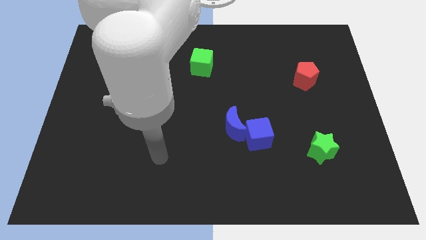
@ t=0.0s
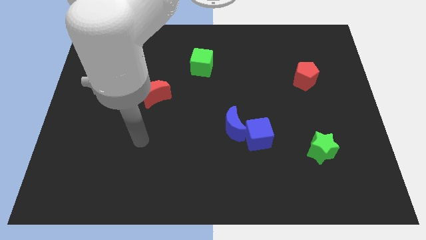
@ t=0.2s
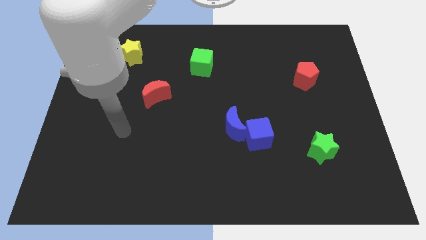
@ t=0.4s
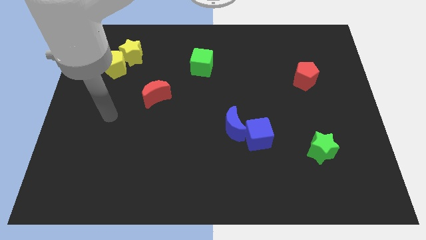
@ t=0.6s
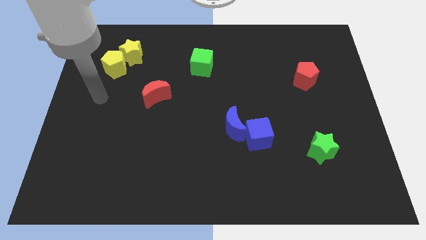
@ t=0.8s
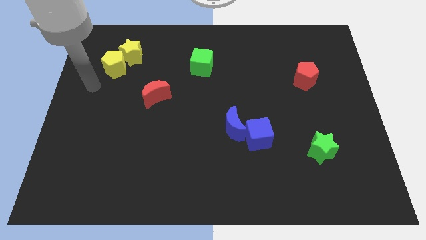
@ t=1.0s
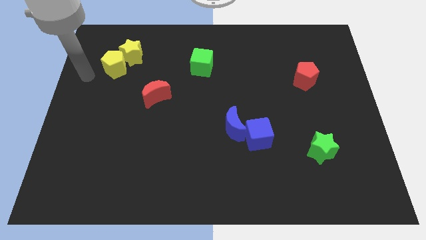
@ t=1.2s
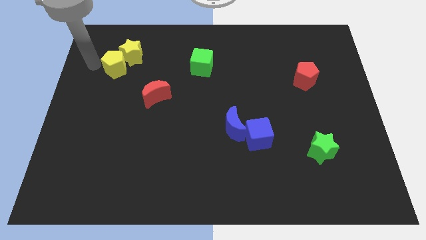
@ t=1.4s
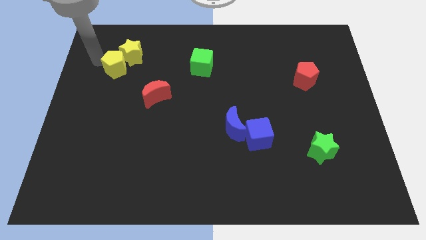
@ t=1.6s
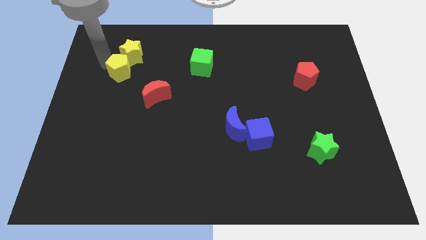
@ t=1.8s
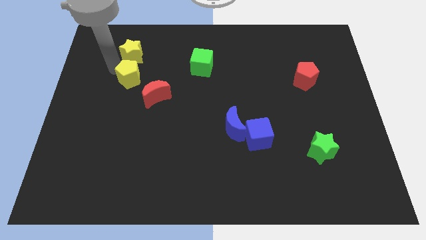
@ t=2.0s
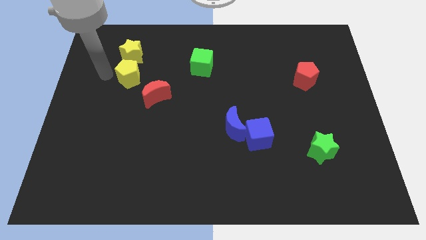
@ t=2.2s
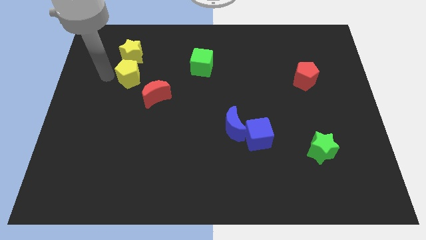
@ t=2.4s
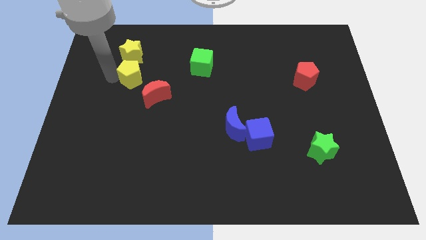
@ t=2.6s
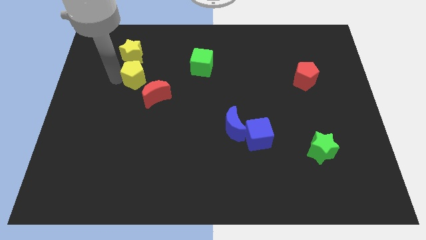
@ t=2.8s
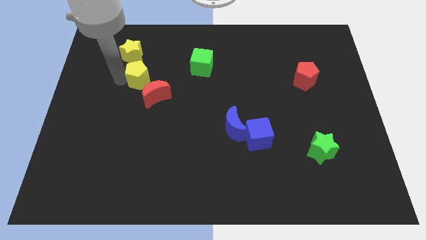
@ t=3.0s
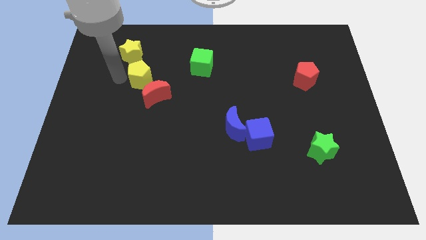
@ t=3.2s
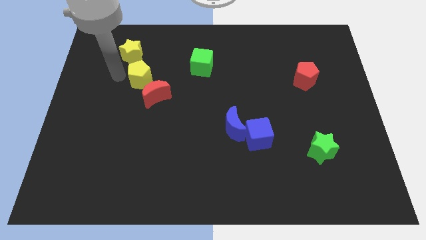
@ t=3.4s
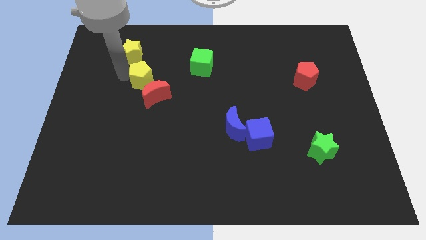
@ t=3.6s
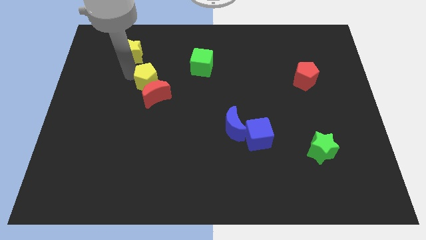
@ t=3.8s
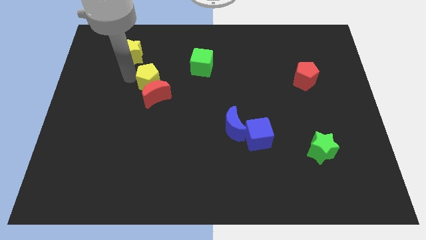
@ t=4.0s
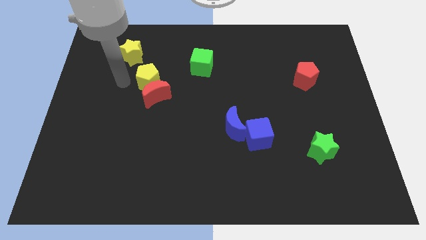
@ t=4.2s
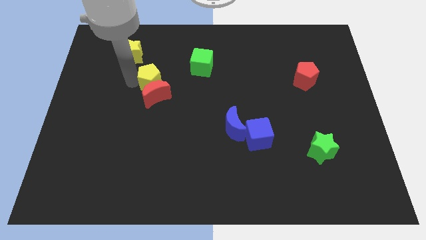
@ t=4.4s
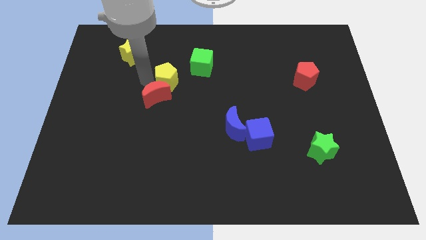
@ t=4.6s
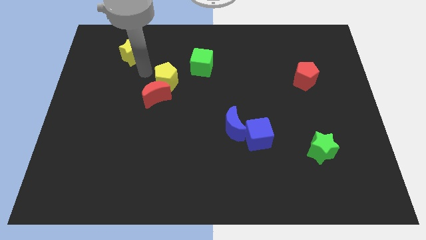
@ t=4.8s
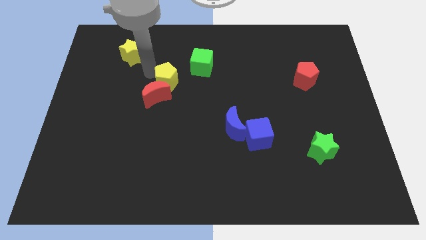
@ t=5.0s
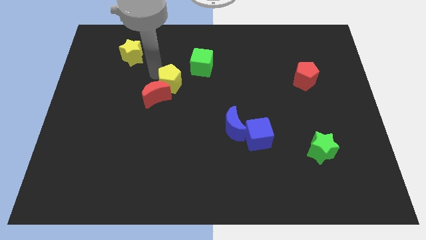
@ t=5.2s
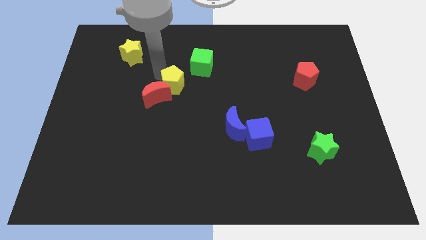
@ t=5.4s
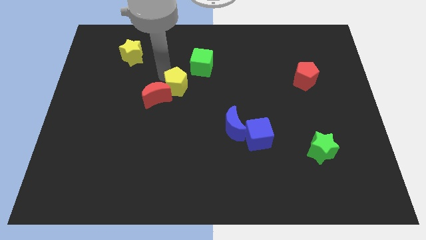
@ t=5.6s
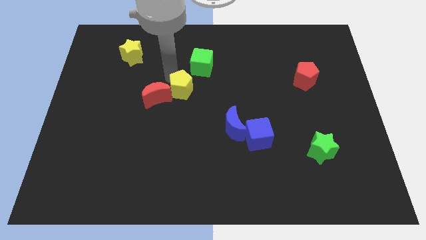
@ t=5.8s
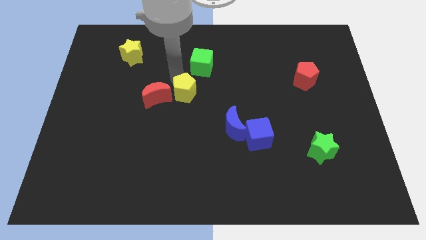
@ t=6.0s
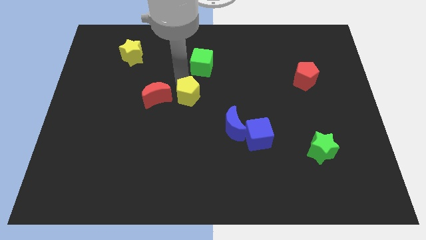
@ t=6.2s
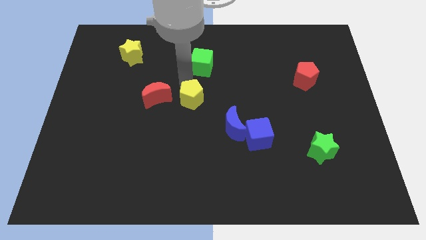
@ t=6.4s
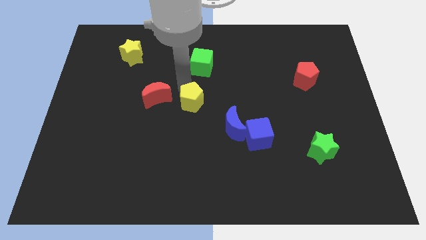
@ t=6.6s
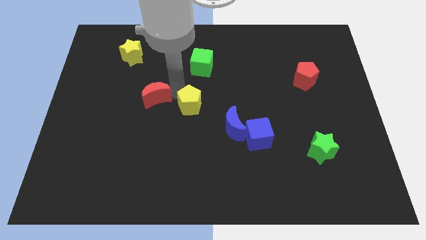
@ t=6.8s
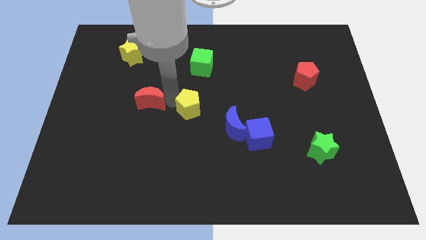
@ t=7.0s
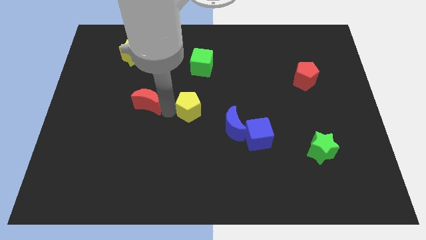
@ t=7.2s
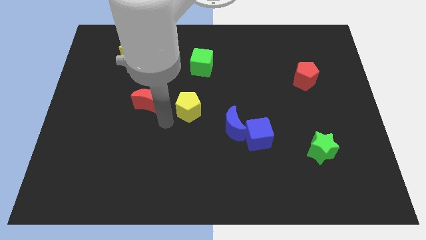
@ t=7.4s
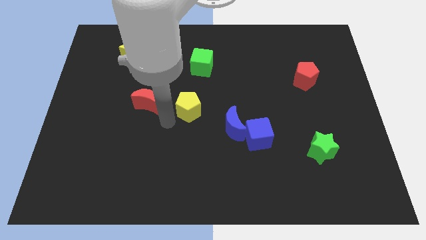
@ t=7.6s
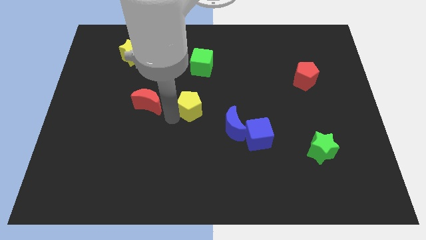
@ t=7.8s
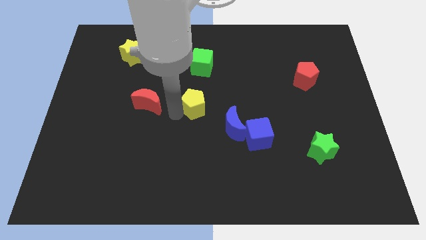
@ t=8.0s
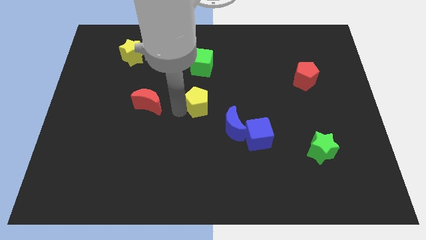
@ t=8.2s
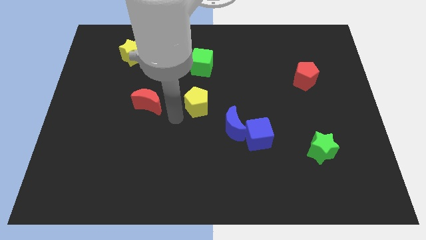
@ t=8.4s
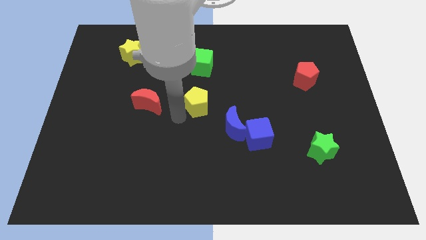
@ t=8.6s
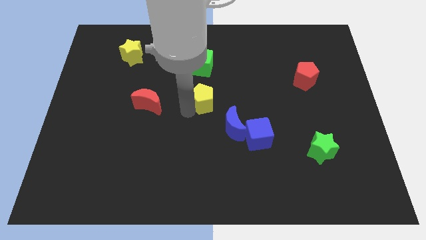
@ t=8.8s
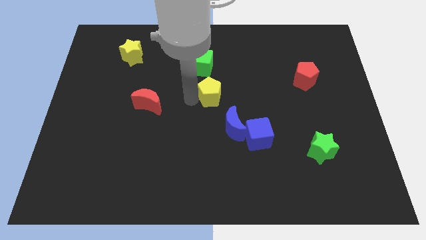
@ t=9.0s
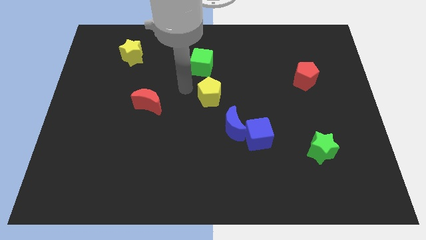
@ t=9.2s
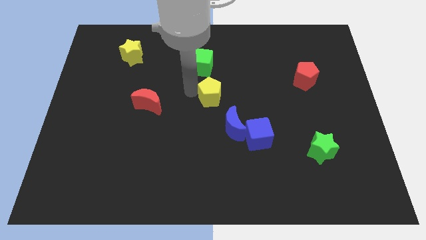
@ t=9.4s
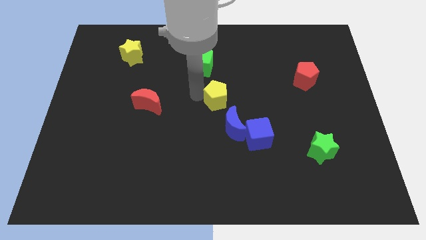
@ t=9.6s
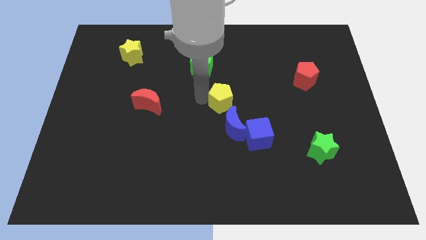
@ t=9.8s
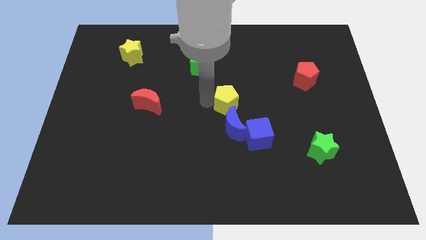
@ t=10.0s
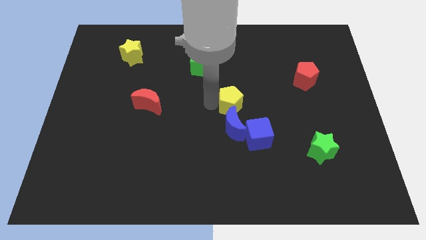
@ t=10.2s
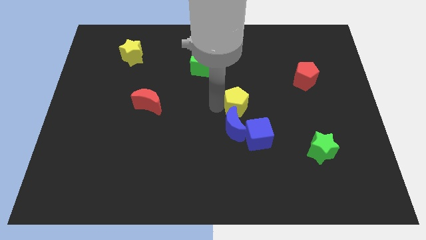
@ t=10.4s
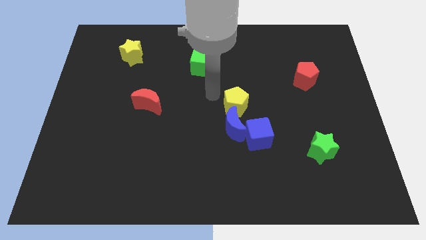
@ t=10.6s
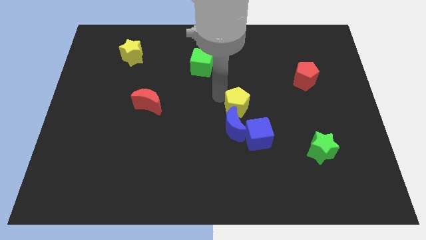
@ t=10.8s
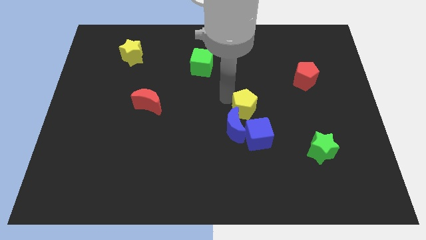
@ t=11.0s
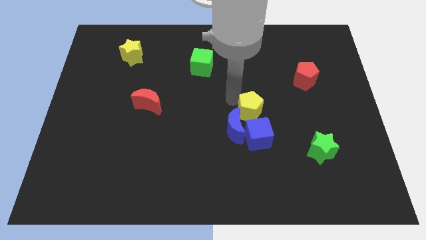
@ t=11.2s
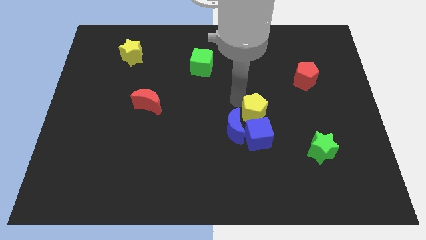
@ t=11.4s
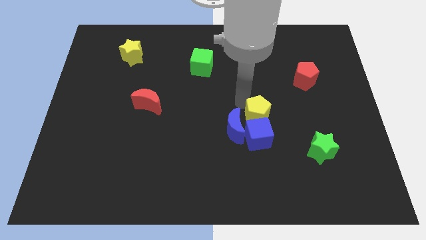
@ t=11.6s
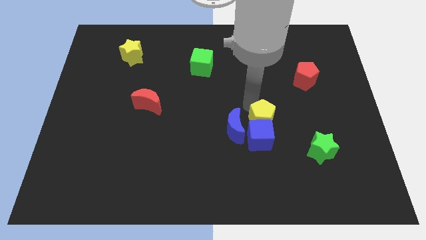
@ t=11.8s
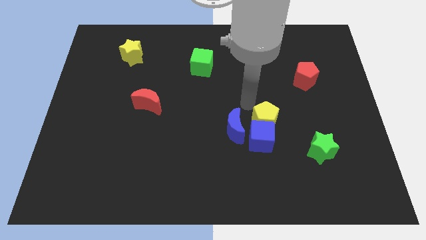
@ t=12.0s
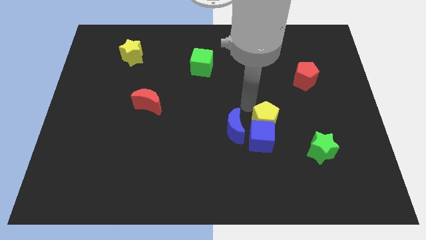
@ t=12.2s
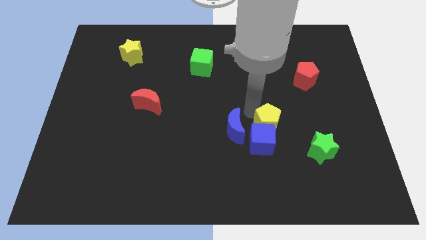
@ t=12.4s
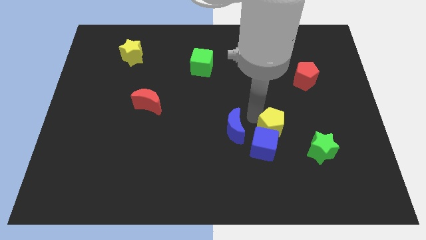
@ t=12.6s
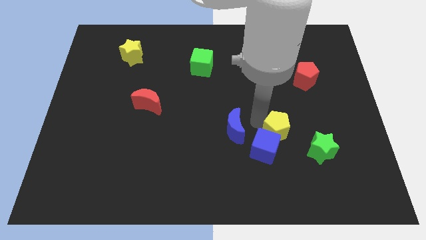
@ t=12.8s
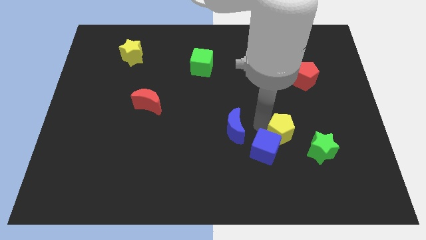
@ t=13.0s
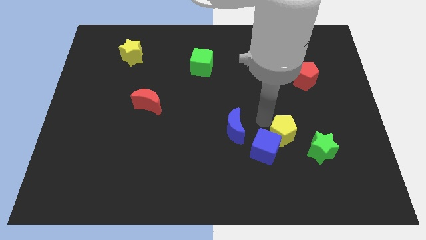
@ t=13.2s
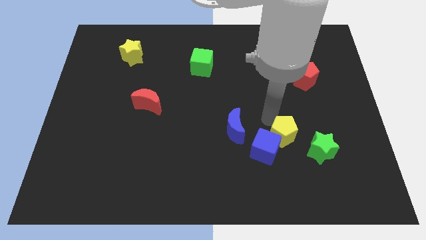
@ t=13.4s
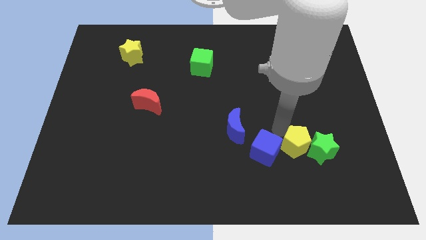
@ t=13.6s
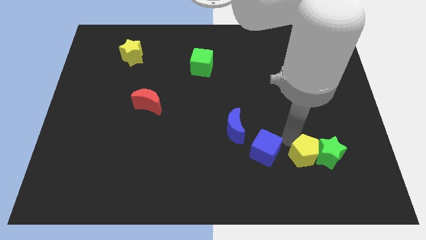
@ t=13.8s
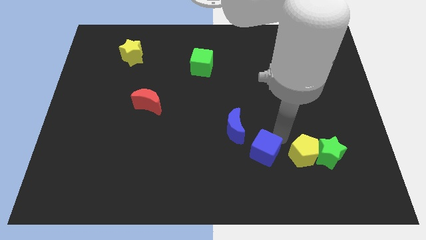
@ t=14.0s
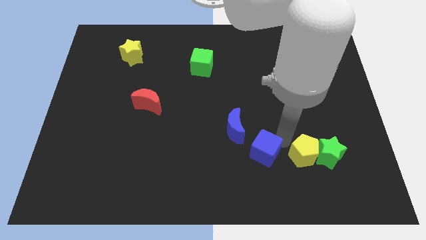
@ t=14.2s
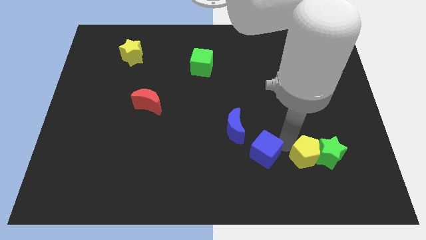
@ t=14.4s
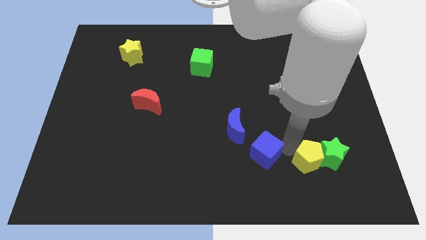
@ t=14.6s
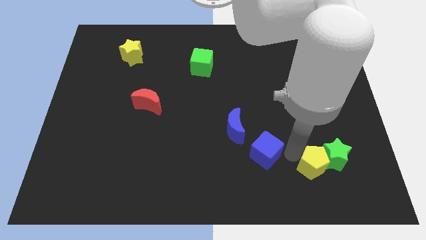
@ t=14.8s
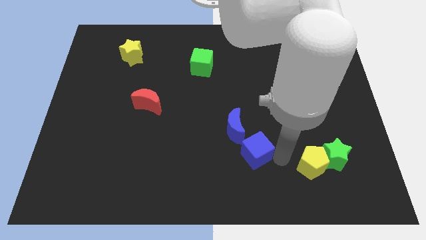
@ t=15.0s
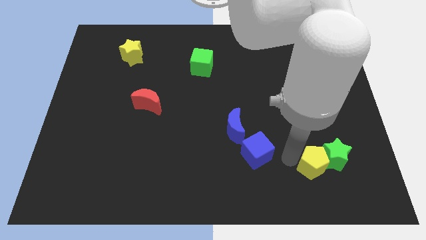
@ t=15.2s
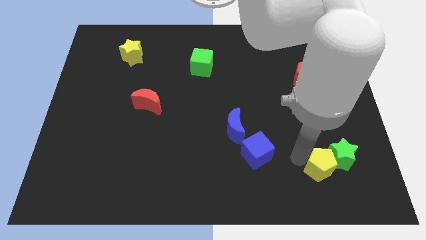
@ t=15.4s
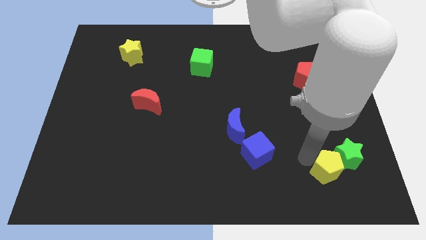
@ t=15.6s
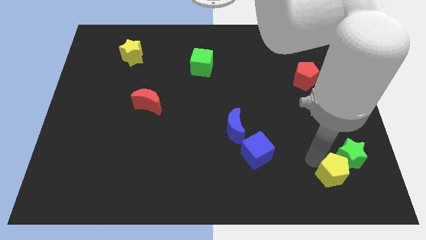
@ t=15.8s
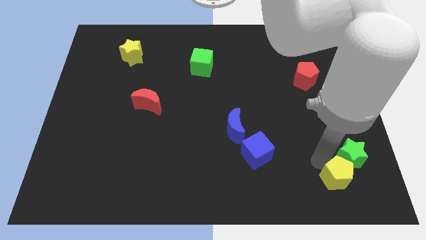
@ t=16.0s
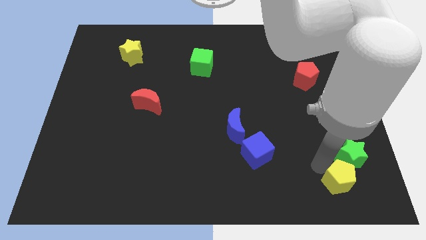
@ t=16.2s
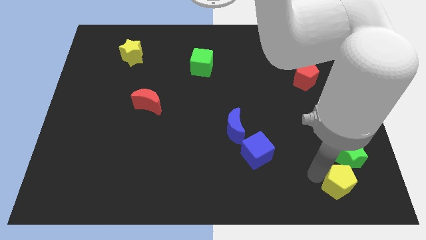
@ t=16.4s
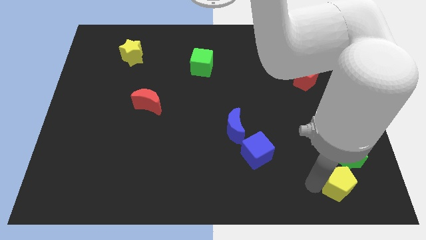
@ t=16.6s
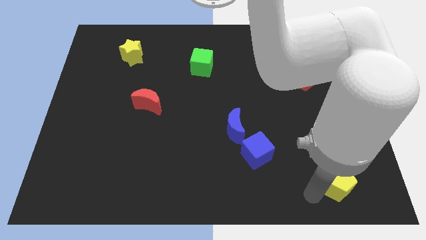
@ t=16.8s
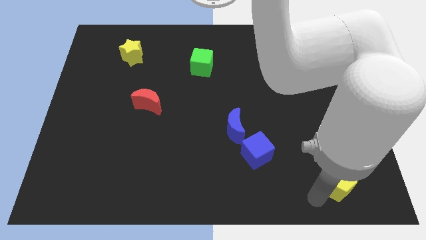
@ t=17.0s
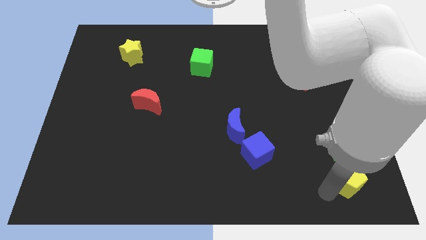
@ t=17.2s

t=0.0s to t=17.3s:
put the yellow pentagon to the lower right corner
